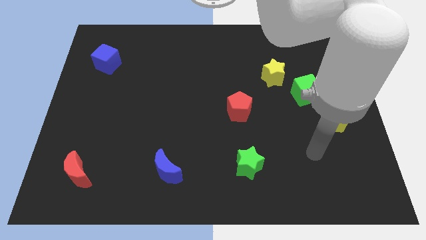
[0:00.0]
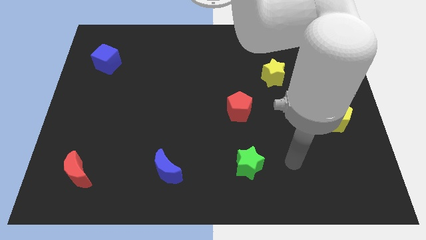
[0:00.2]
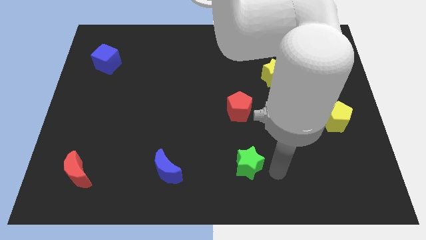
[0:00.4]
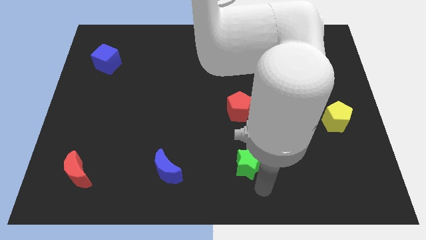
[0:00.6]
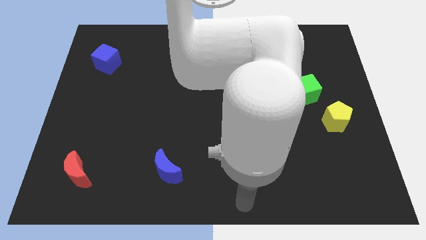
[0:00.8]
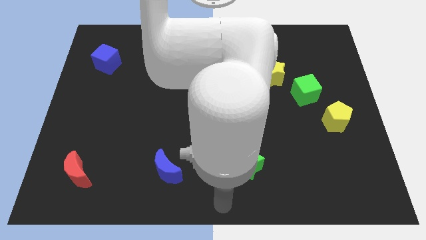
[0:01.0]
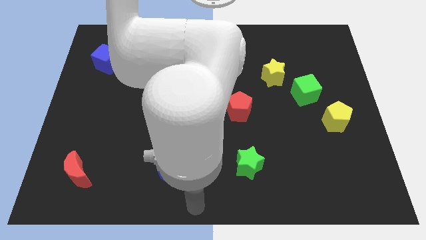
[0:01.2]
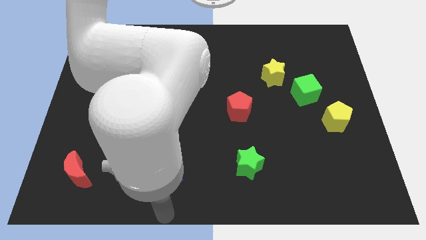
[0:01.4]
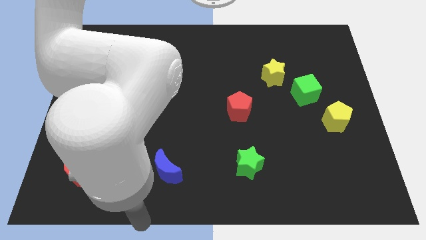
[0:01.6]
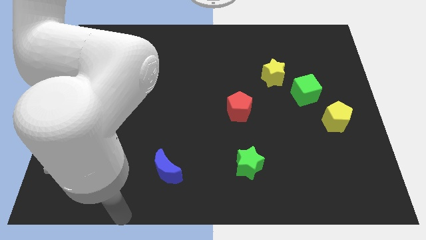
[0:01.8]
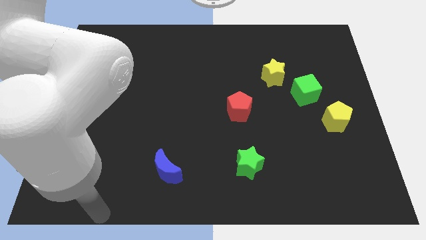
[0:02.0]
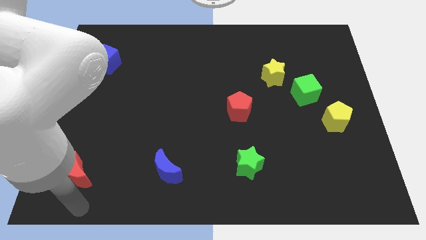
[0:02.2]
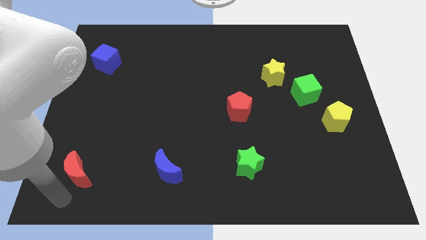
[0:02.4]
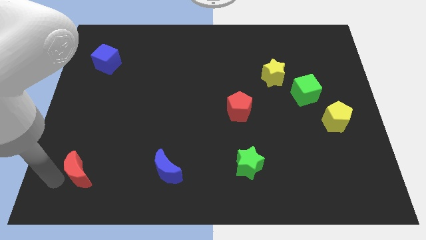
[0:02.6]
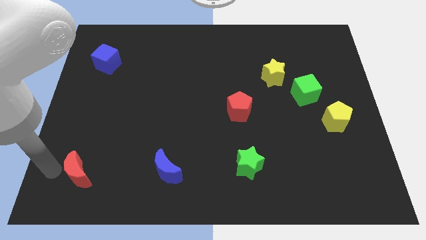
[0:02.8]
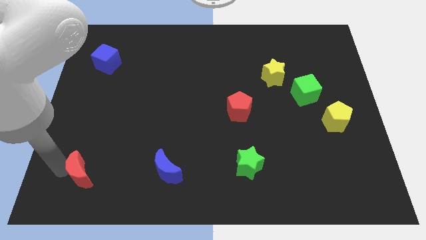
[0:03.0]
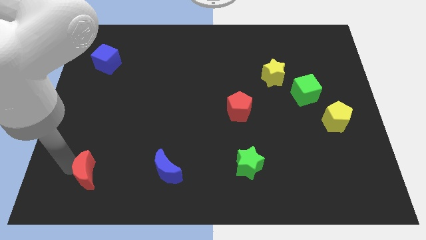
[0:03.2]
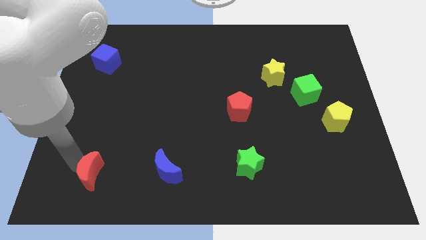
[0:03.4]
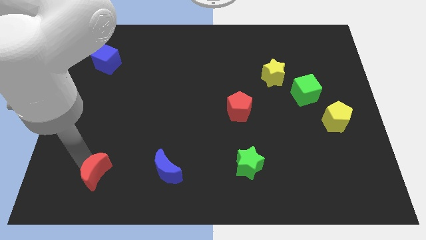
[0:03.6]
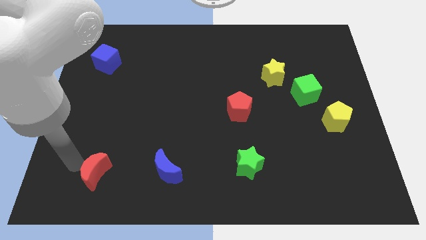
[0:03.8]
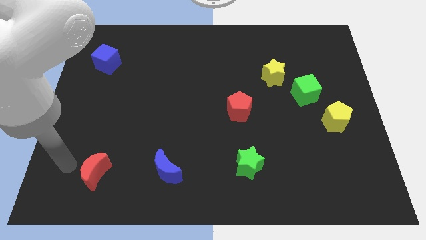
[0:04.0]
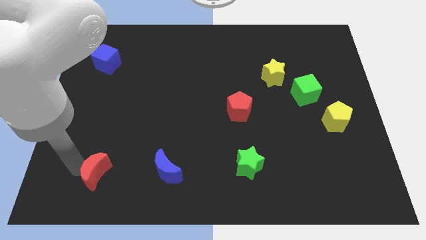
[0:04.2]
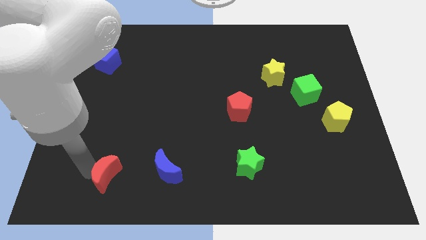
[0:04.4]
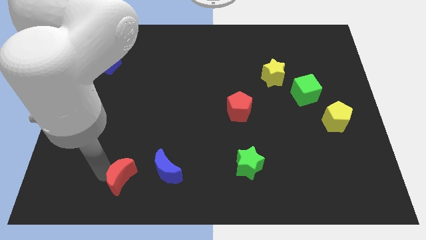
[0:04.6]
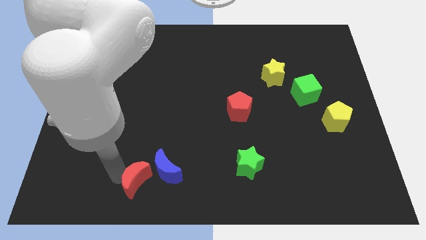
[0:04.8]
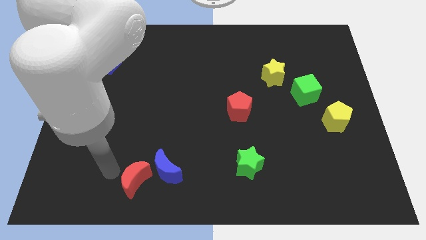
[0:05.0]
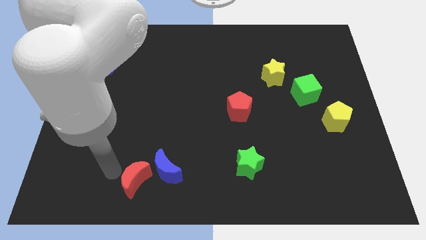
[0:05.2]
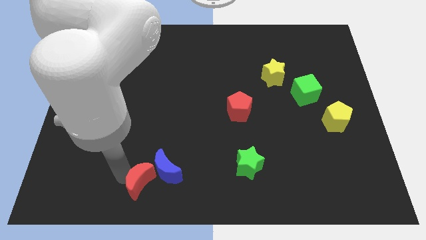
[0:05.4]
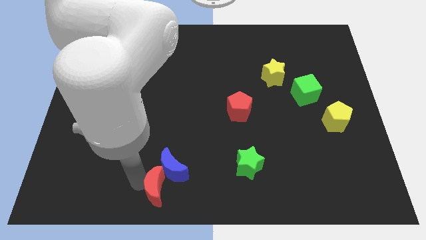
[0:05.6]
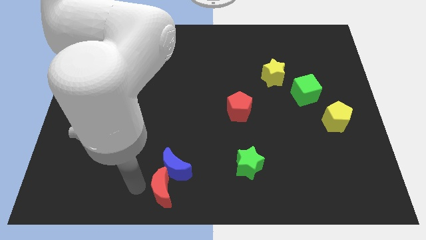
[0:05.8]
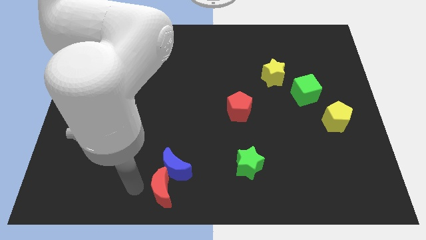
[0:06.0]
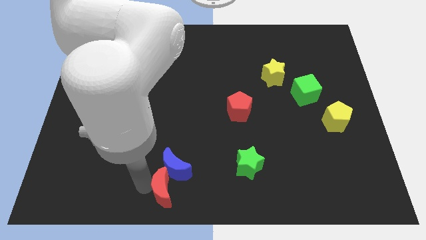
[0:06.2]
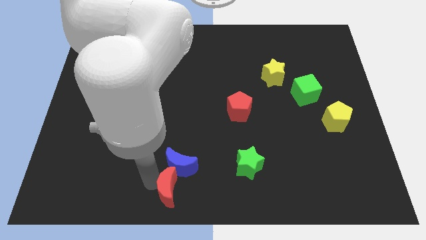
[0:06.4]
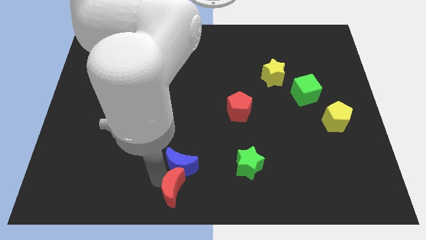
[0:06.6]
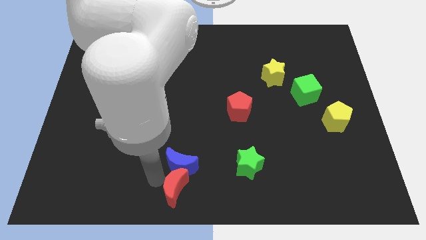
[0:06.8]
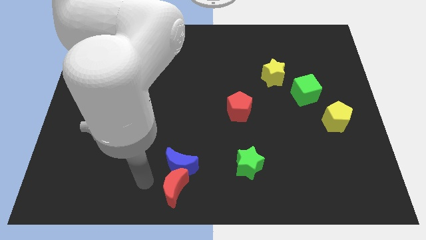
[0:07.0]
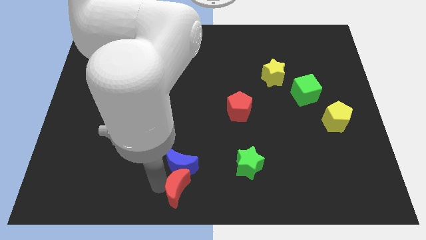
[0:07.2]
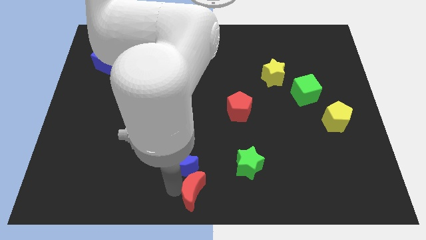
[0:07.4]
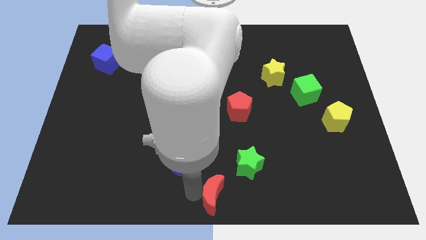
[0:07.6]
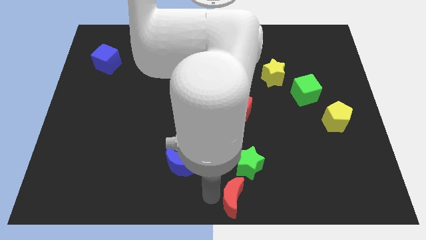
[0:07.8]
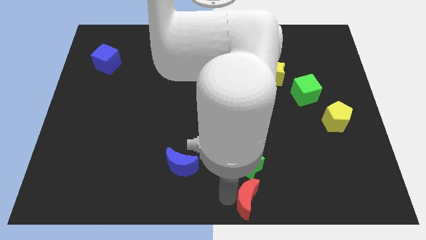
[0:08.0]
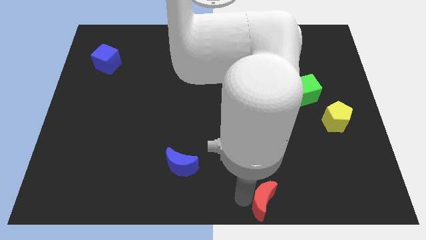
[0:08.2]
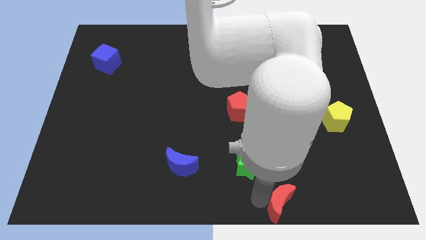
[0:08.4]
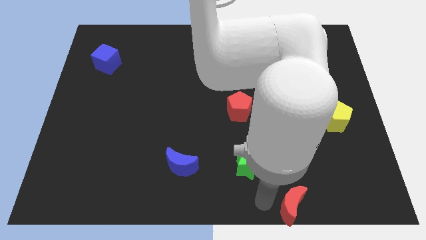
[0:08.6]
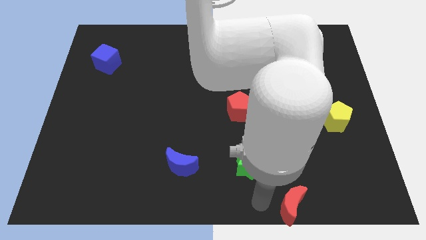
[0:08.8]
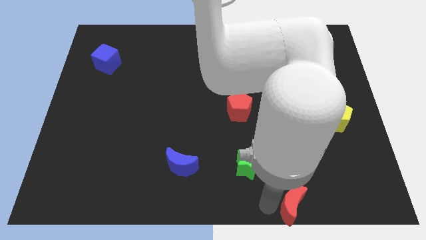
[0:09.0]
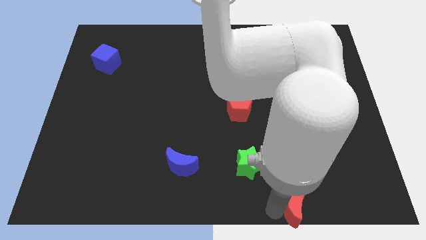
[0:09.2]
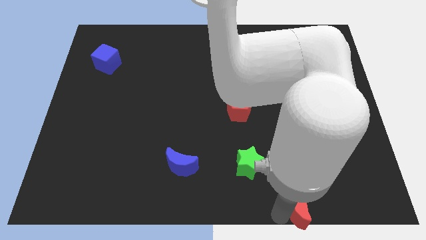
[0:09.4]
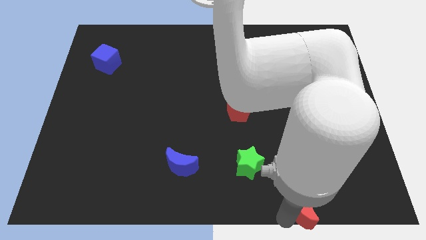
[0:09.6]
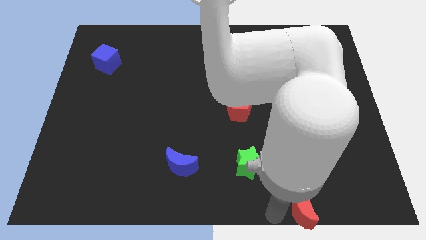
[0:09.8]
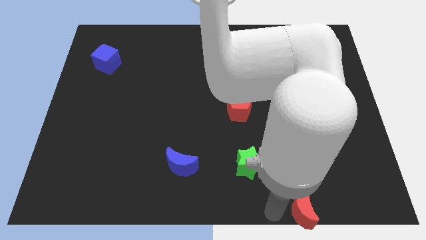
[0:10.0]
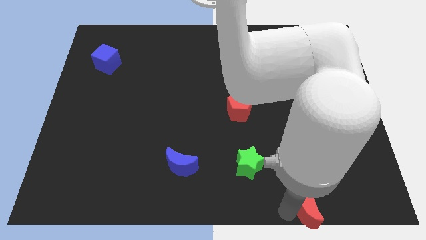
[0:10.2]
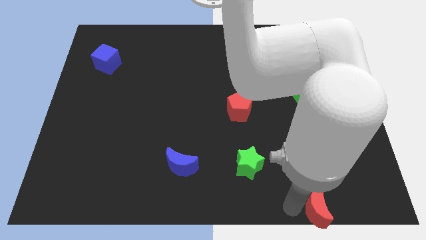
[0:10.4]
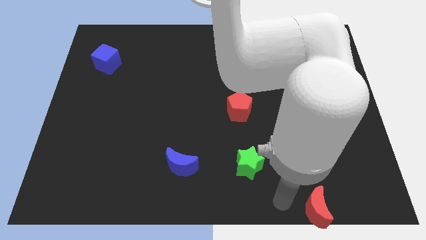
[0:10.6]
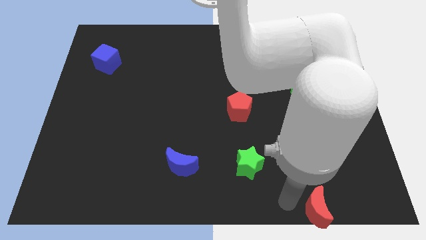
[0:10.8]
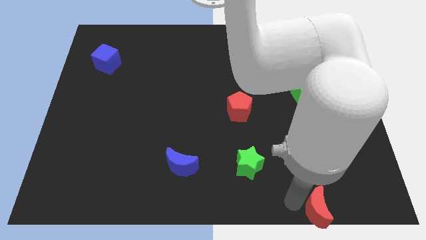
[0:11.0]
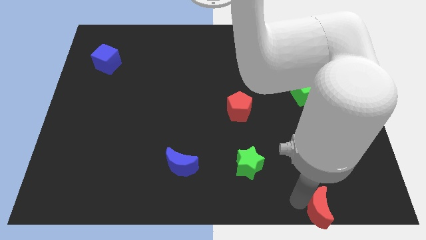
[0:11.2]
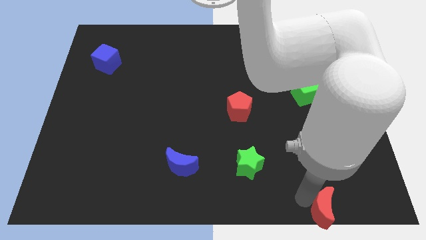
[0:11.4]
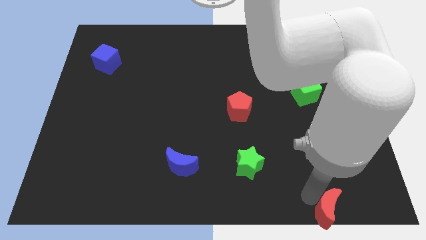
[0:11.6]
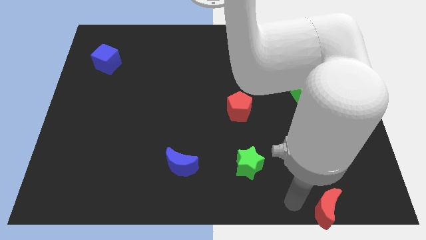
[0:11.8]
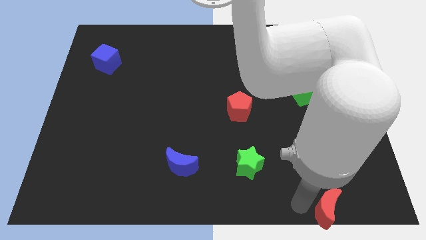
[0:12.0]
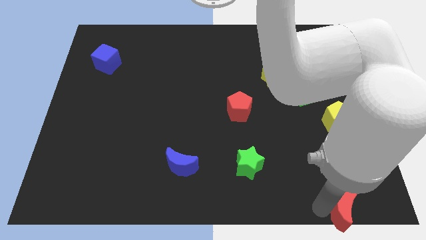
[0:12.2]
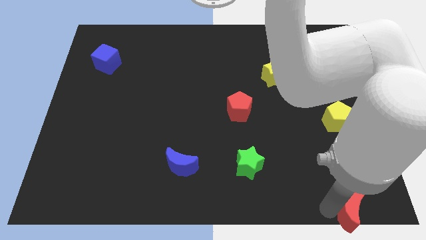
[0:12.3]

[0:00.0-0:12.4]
slide the red moon to the bottom right of the board

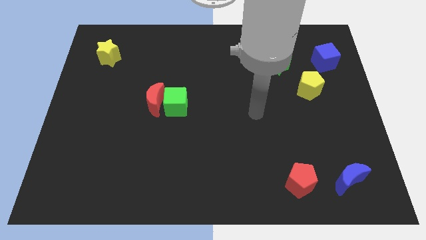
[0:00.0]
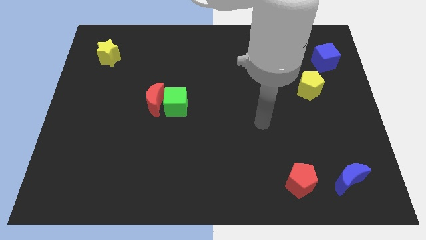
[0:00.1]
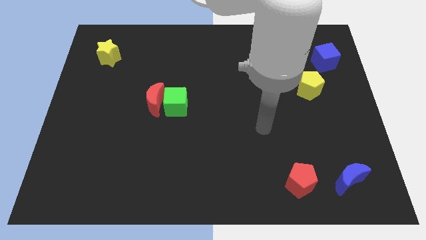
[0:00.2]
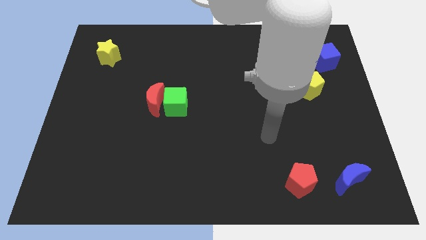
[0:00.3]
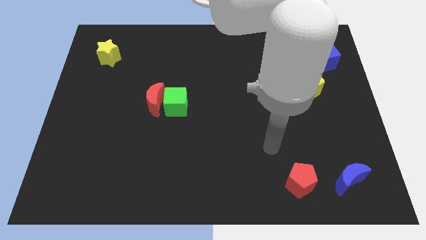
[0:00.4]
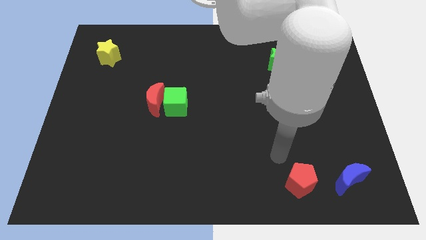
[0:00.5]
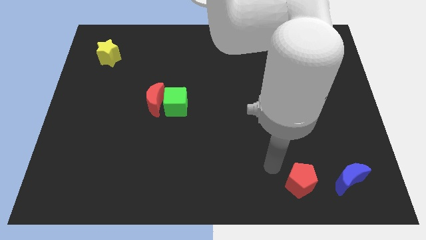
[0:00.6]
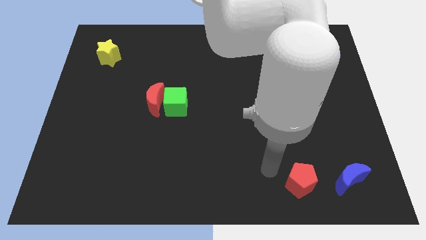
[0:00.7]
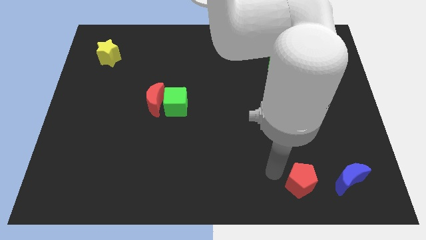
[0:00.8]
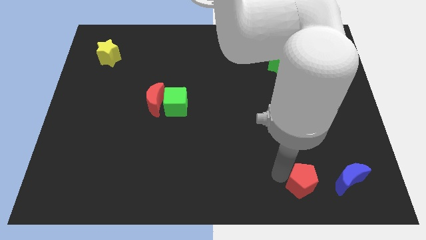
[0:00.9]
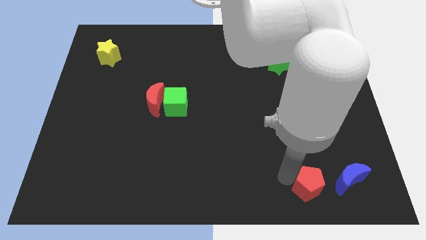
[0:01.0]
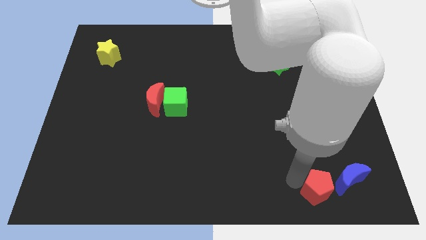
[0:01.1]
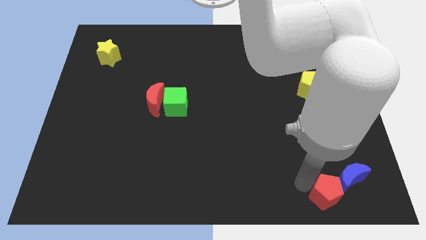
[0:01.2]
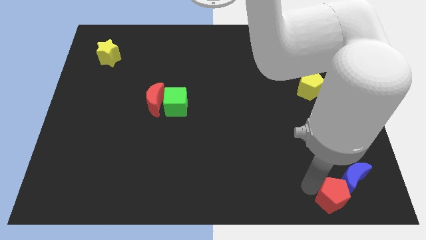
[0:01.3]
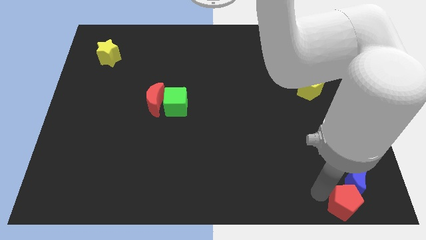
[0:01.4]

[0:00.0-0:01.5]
move the red pentagon to the bottom right
